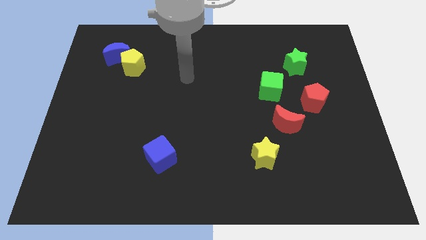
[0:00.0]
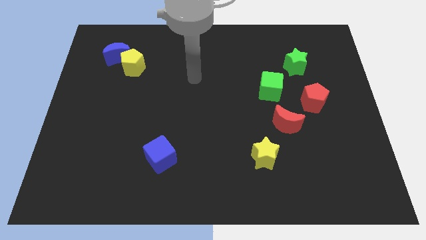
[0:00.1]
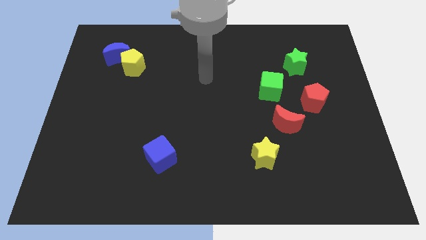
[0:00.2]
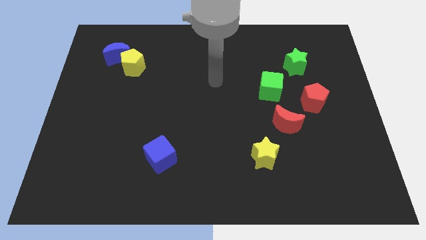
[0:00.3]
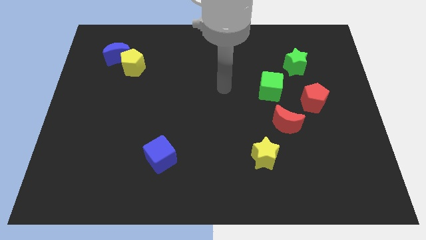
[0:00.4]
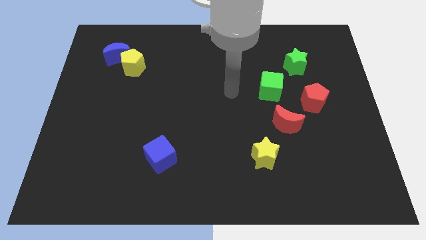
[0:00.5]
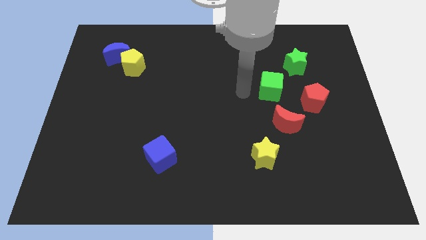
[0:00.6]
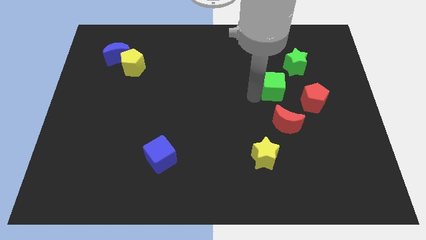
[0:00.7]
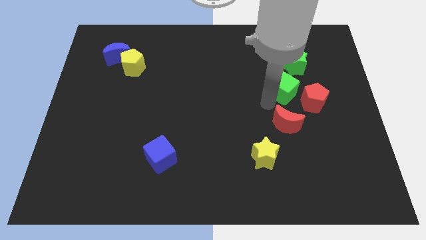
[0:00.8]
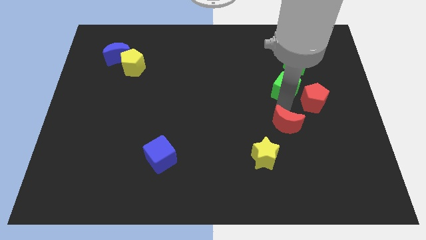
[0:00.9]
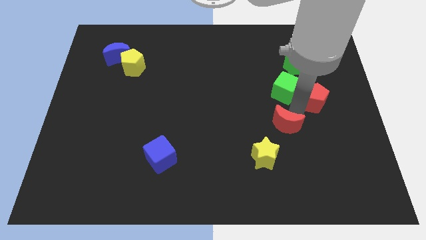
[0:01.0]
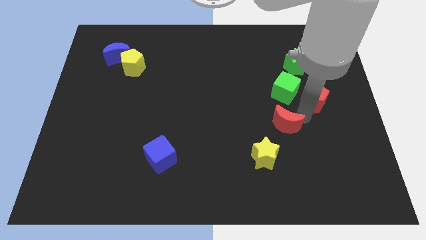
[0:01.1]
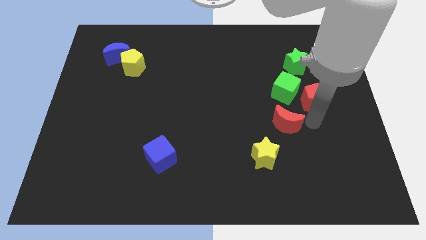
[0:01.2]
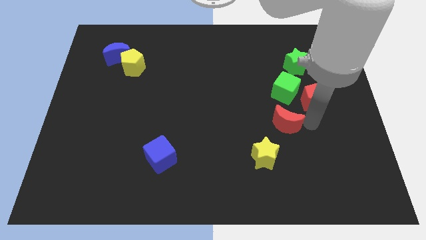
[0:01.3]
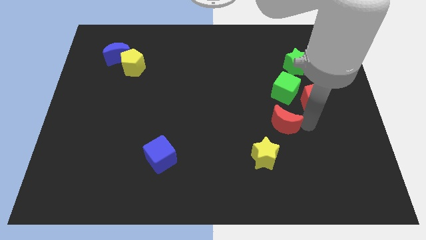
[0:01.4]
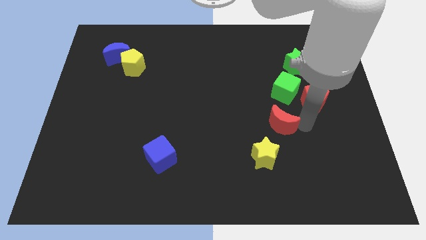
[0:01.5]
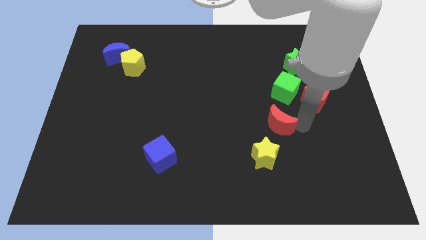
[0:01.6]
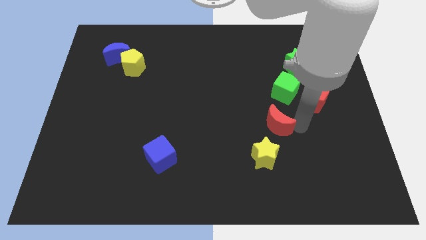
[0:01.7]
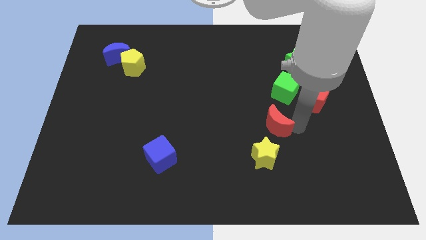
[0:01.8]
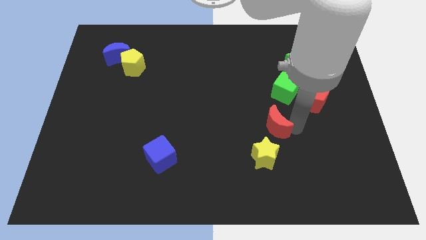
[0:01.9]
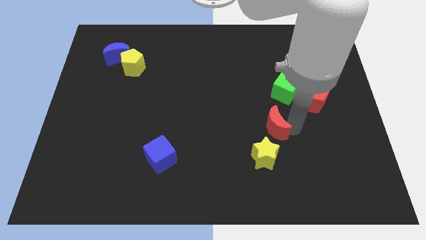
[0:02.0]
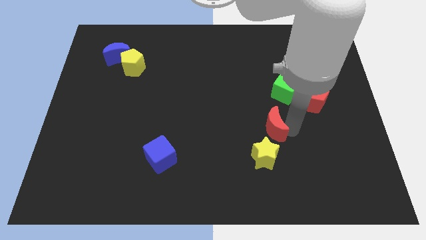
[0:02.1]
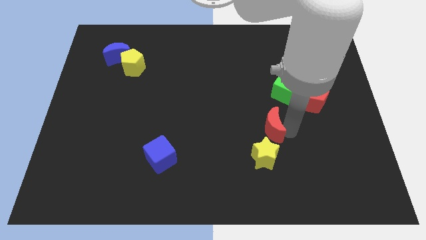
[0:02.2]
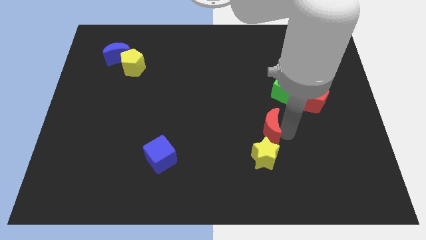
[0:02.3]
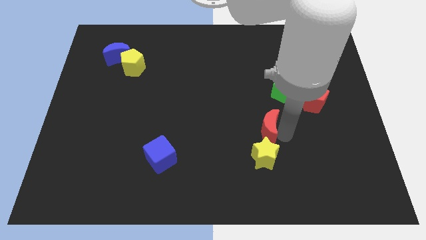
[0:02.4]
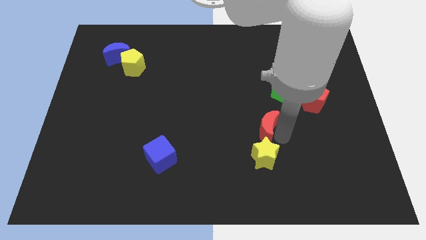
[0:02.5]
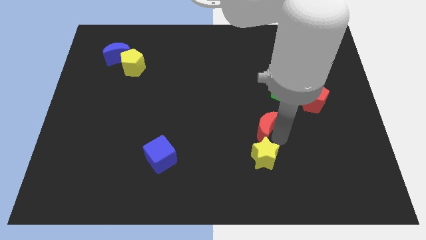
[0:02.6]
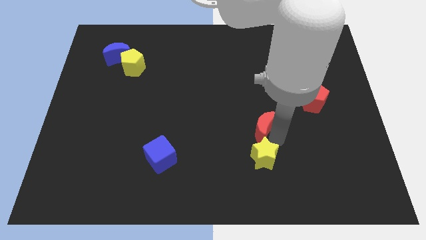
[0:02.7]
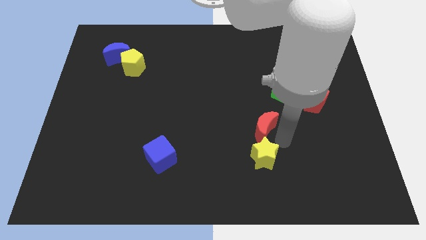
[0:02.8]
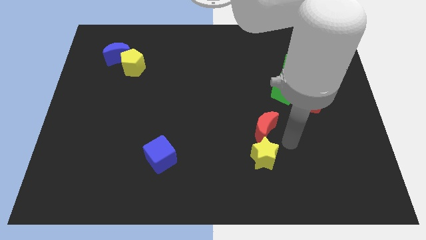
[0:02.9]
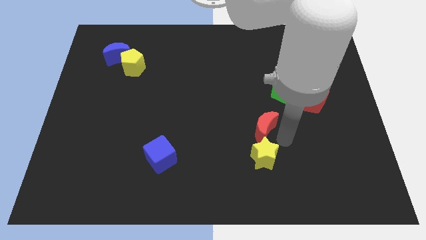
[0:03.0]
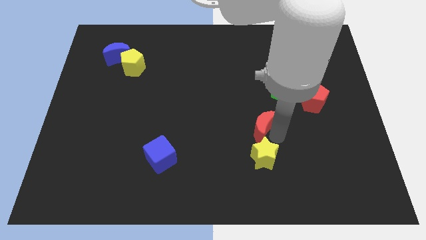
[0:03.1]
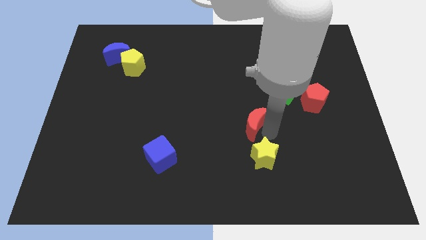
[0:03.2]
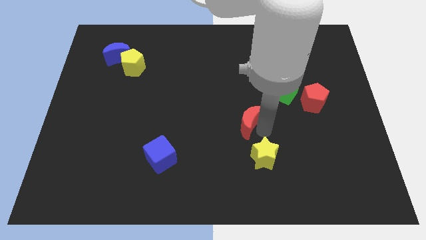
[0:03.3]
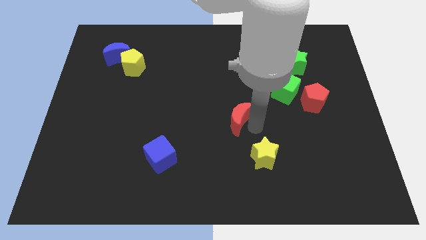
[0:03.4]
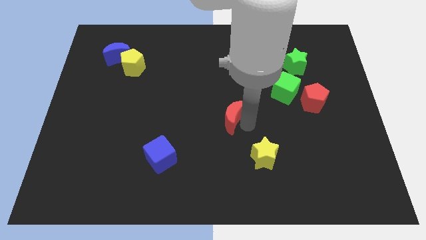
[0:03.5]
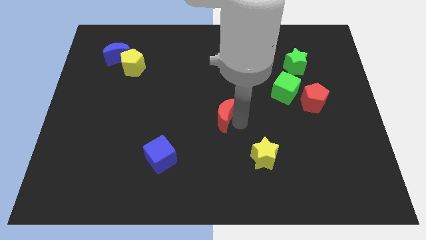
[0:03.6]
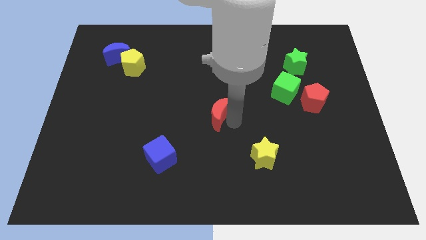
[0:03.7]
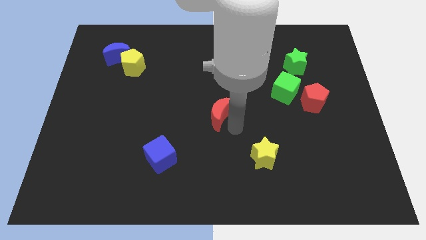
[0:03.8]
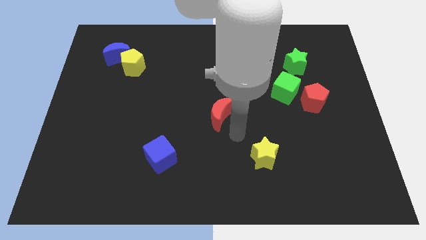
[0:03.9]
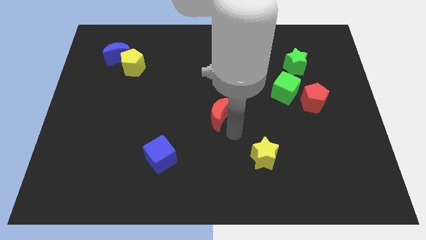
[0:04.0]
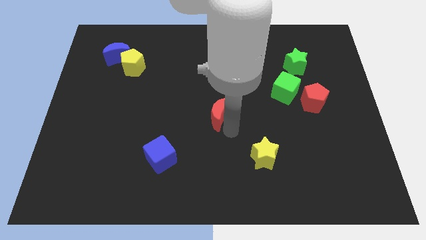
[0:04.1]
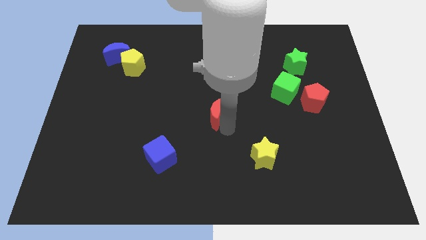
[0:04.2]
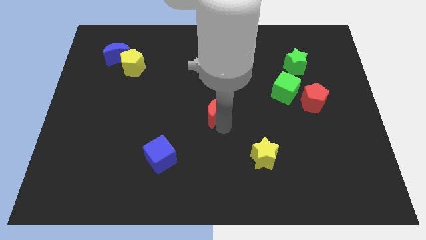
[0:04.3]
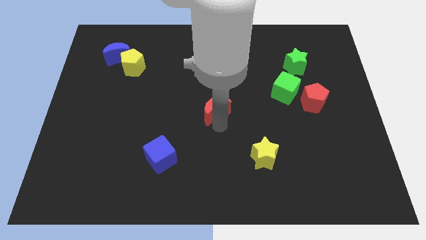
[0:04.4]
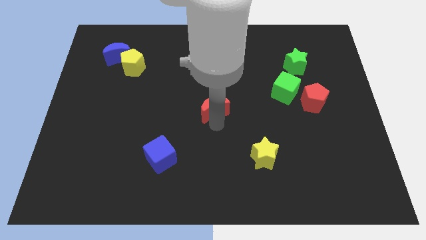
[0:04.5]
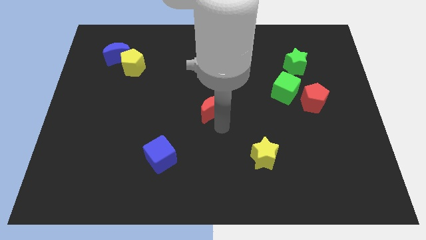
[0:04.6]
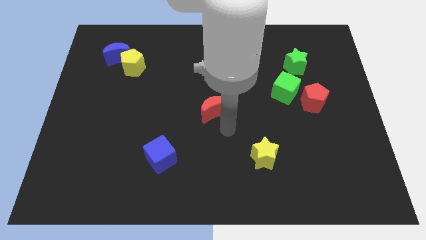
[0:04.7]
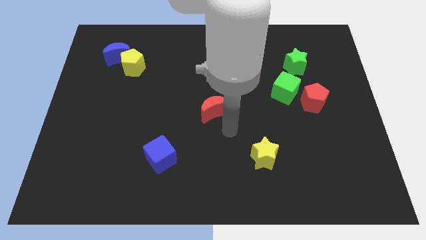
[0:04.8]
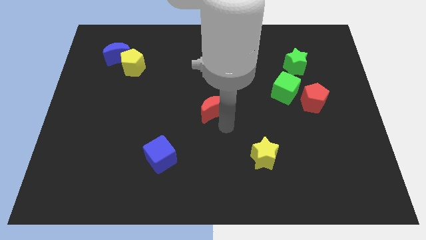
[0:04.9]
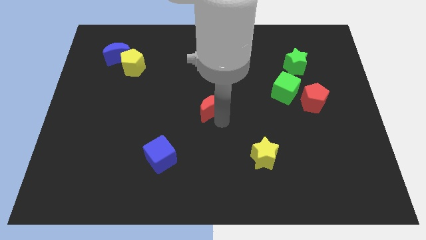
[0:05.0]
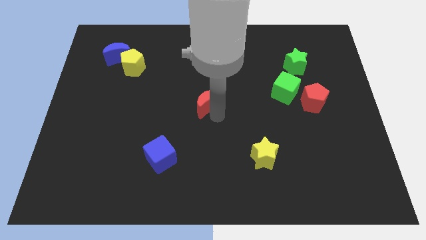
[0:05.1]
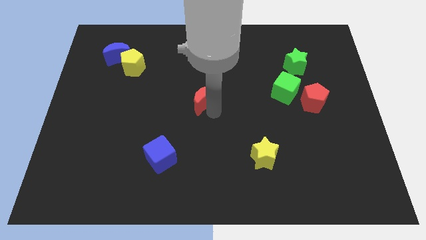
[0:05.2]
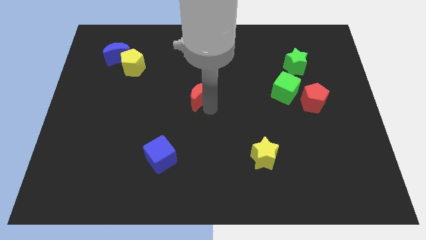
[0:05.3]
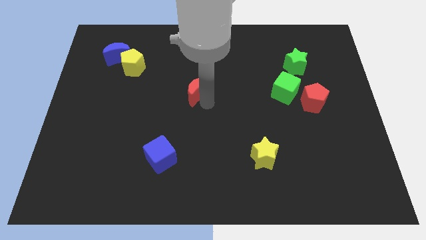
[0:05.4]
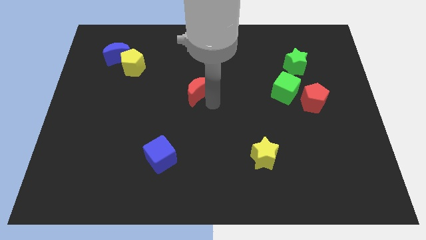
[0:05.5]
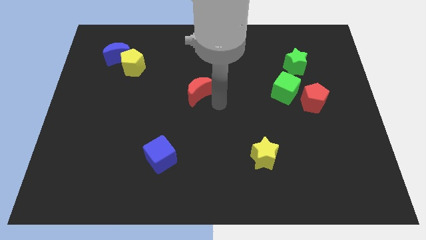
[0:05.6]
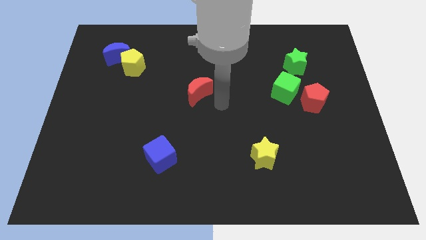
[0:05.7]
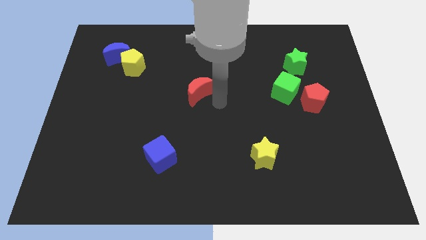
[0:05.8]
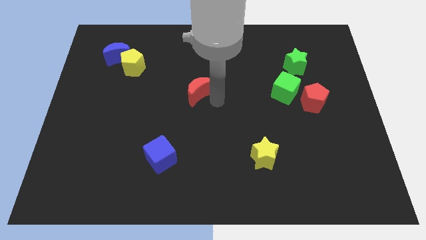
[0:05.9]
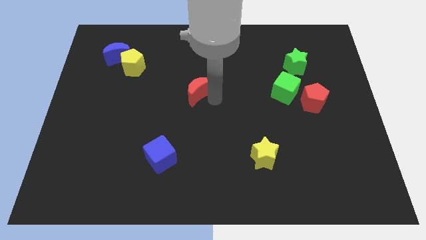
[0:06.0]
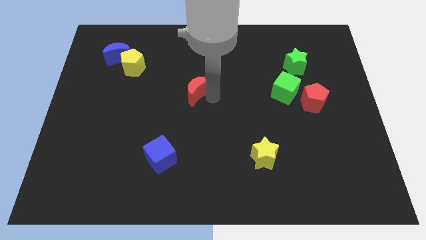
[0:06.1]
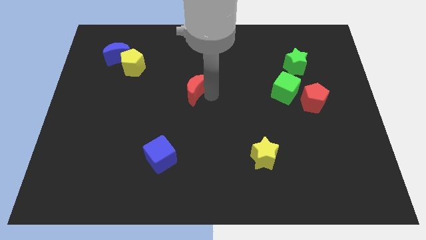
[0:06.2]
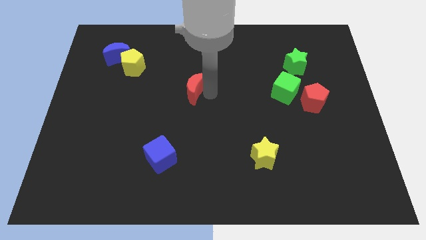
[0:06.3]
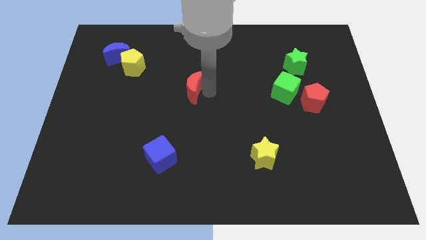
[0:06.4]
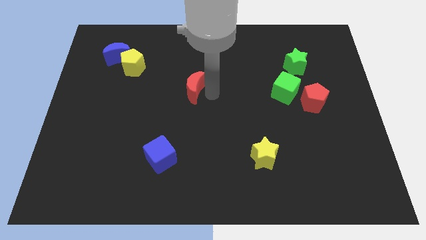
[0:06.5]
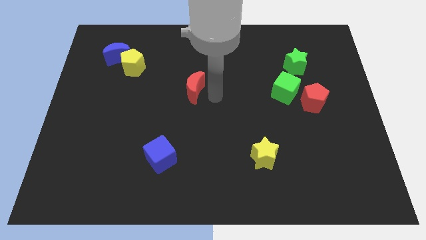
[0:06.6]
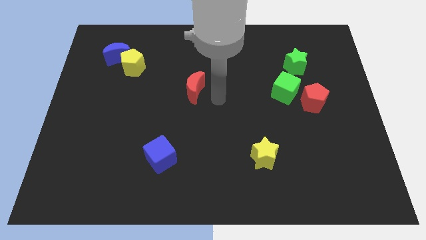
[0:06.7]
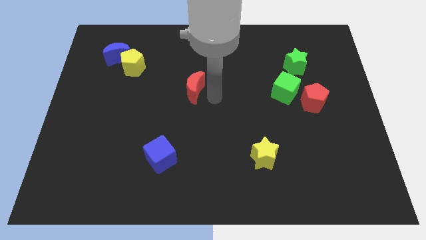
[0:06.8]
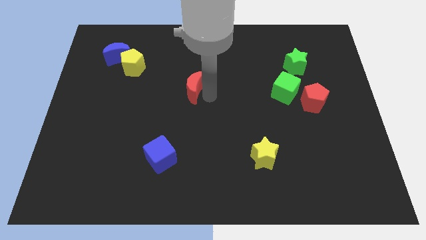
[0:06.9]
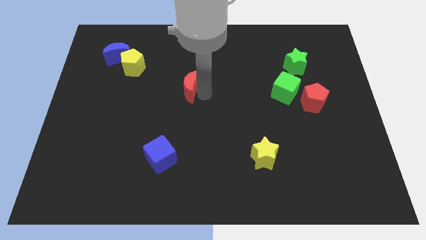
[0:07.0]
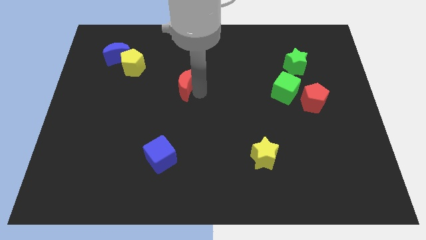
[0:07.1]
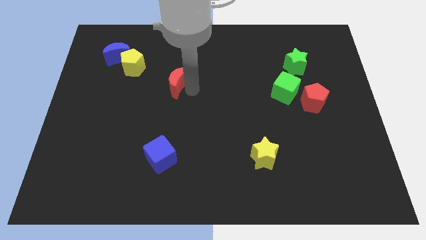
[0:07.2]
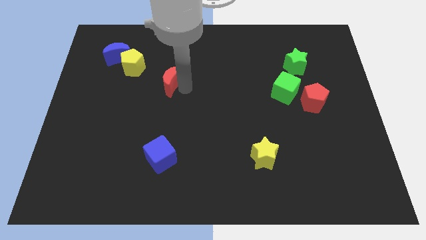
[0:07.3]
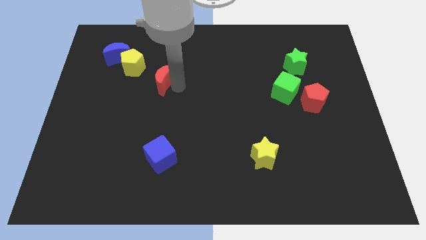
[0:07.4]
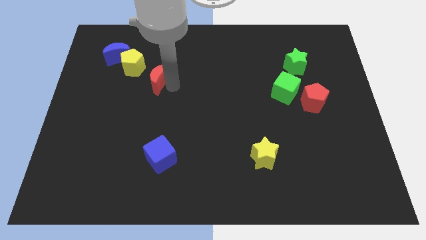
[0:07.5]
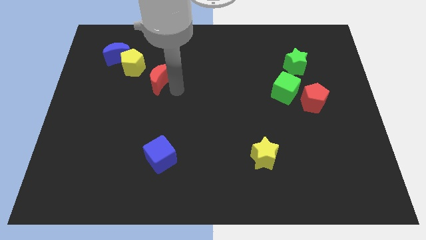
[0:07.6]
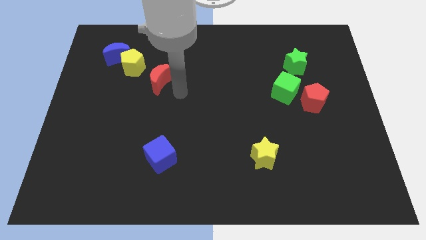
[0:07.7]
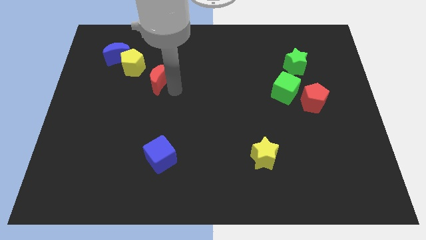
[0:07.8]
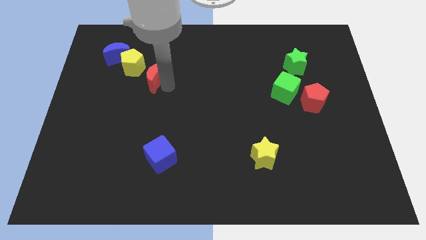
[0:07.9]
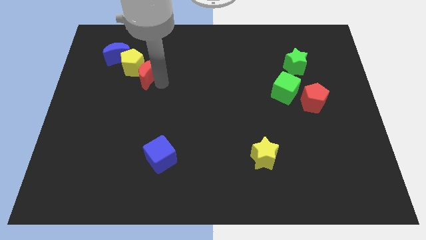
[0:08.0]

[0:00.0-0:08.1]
move the red moon close to the yellow pentagon
